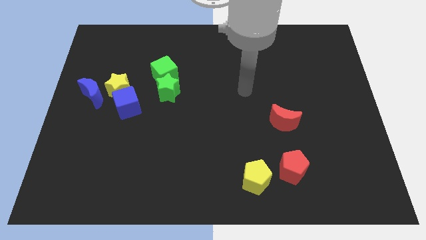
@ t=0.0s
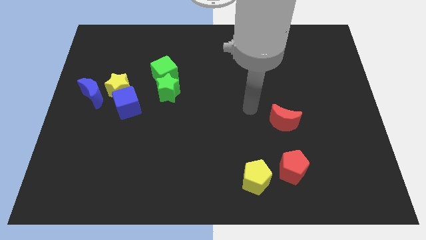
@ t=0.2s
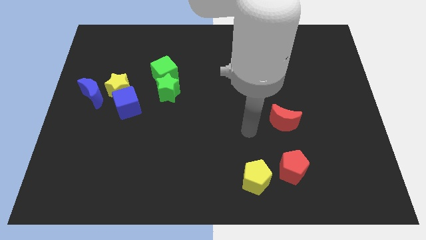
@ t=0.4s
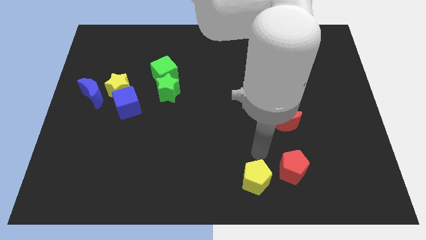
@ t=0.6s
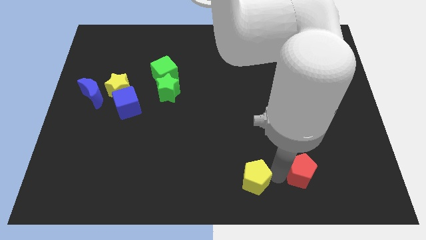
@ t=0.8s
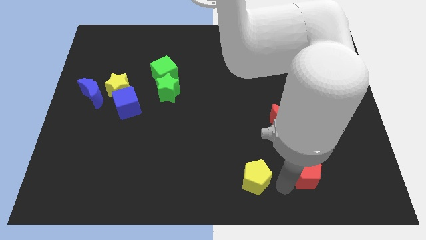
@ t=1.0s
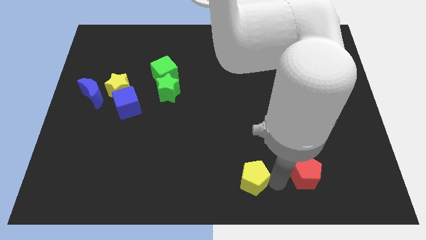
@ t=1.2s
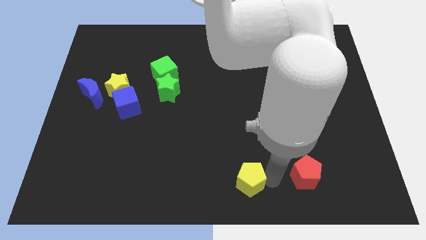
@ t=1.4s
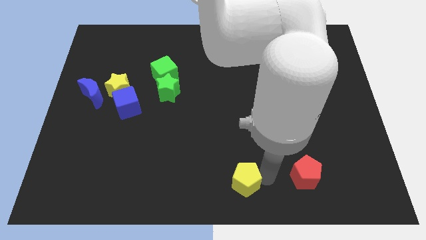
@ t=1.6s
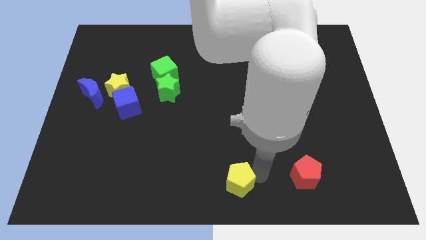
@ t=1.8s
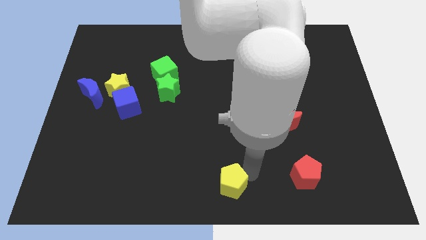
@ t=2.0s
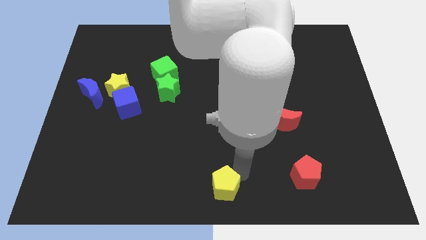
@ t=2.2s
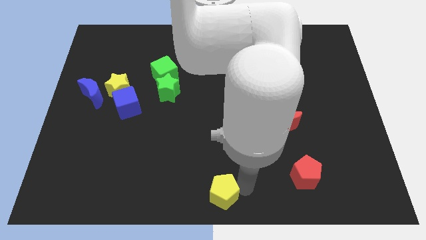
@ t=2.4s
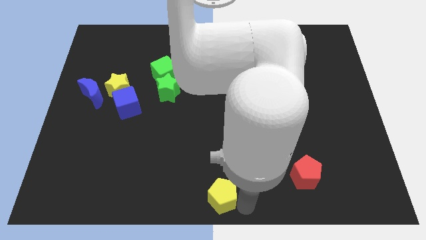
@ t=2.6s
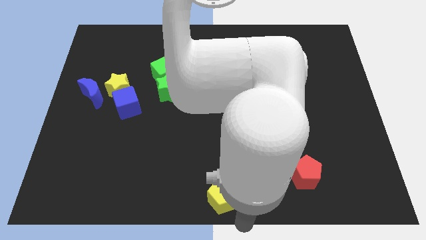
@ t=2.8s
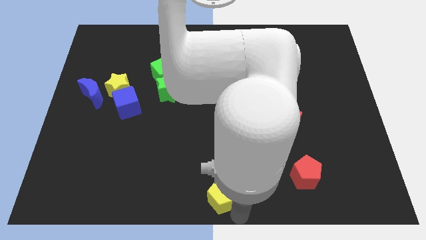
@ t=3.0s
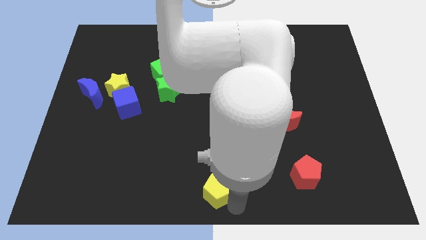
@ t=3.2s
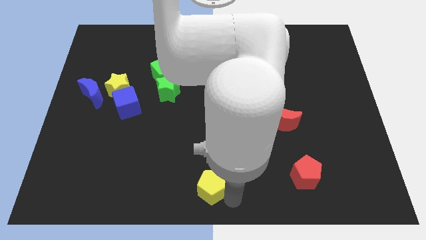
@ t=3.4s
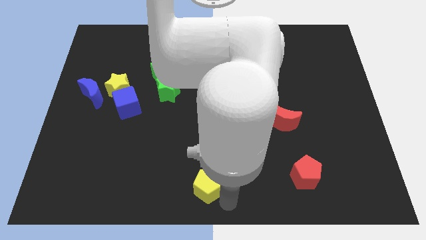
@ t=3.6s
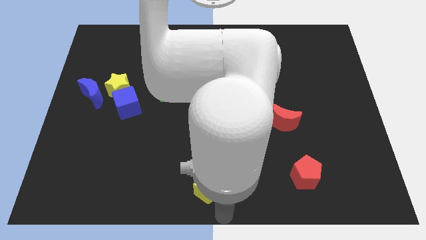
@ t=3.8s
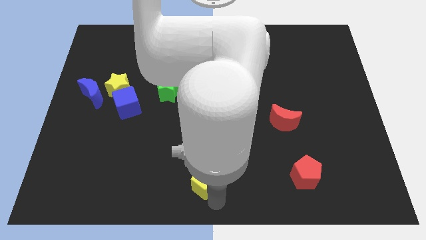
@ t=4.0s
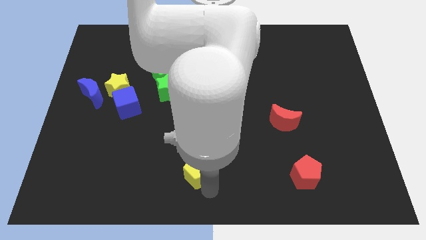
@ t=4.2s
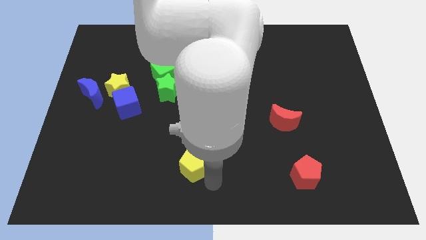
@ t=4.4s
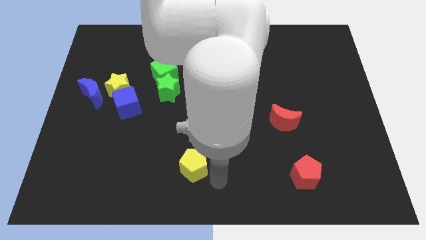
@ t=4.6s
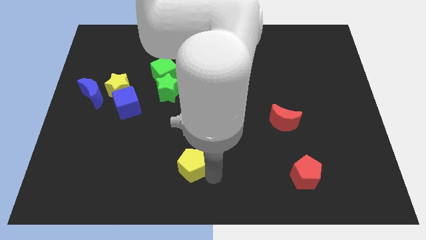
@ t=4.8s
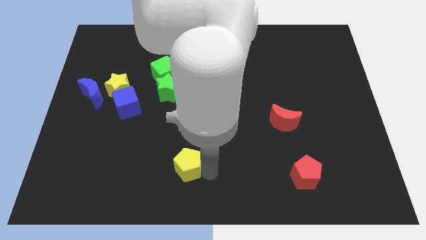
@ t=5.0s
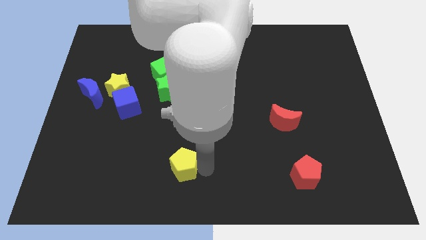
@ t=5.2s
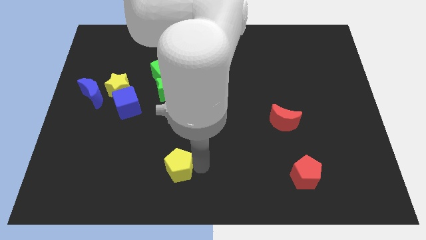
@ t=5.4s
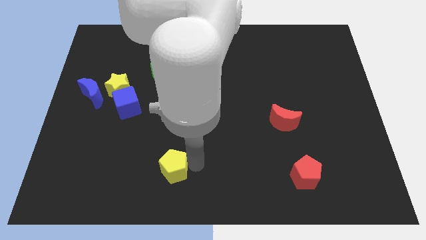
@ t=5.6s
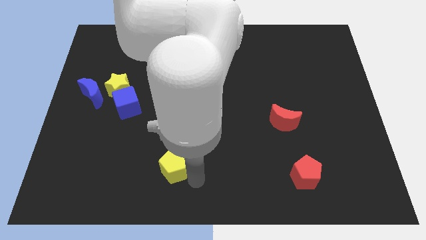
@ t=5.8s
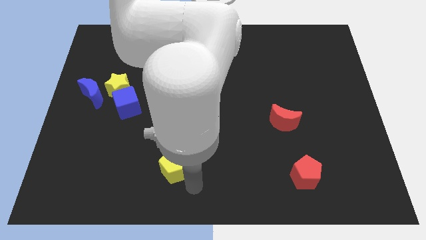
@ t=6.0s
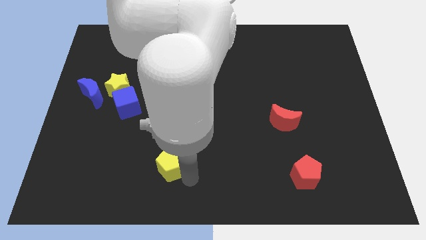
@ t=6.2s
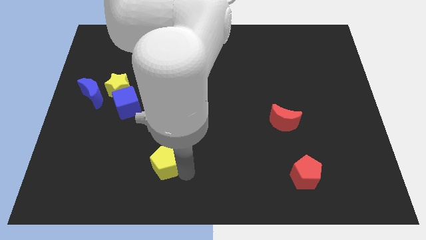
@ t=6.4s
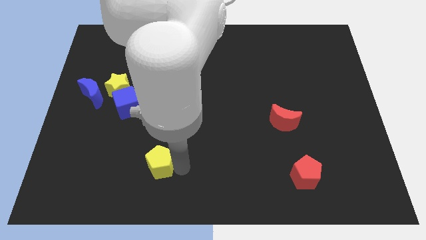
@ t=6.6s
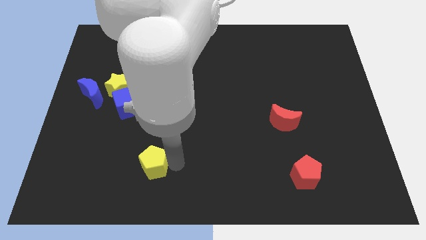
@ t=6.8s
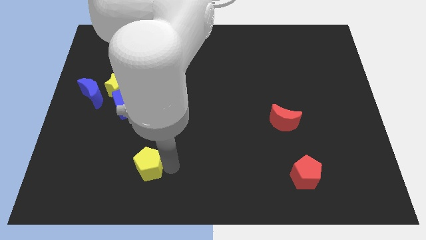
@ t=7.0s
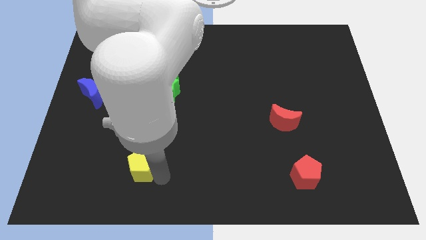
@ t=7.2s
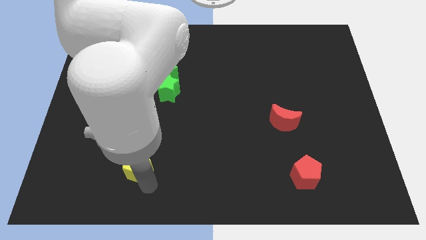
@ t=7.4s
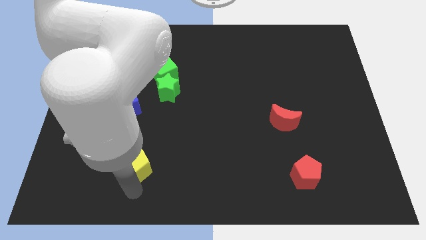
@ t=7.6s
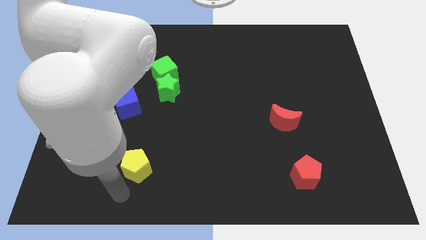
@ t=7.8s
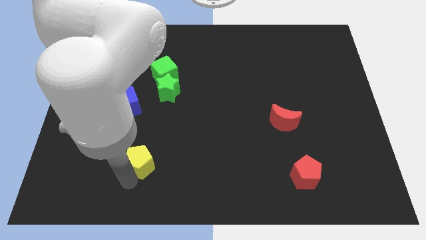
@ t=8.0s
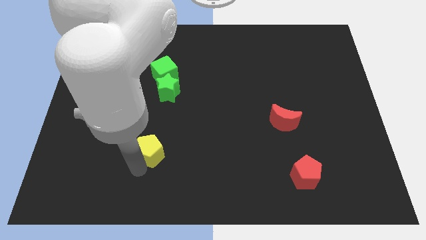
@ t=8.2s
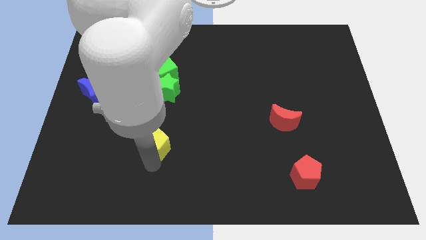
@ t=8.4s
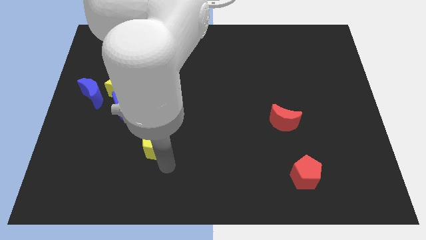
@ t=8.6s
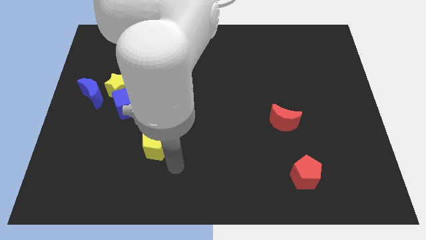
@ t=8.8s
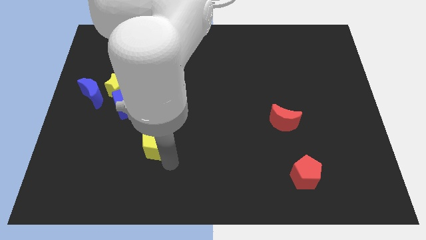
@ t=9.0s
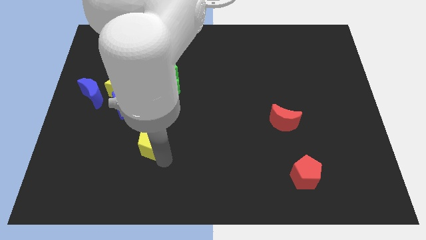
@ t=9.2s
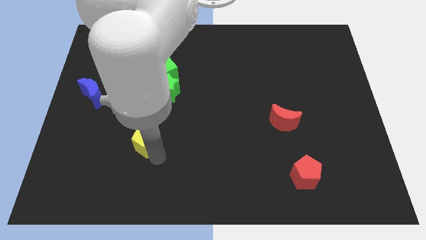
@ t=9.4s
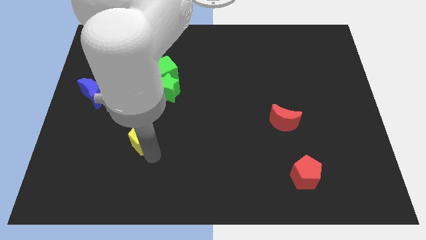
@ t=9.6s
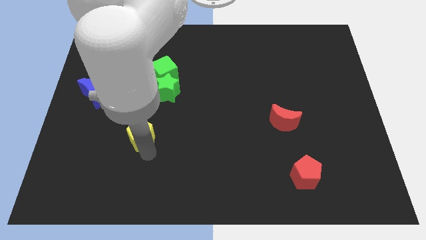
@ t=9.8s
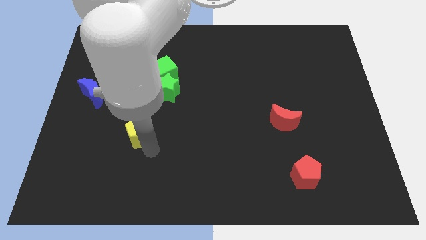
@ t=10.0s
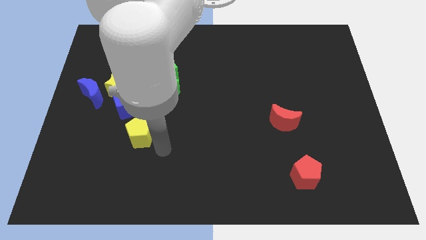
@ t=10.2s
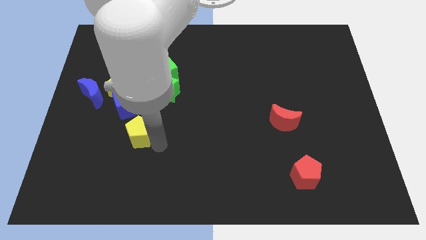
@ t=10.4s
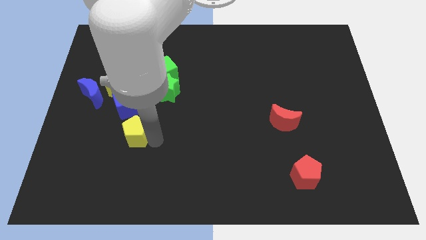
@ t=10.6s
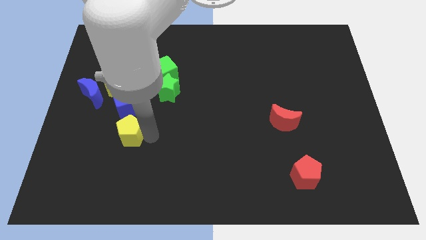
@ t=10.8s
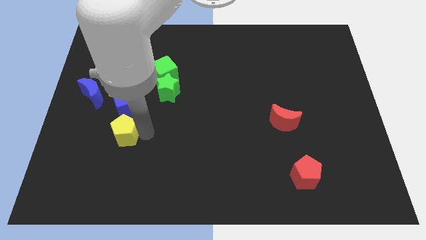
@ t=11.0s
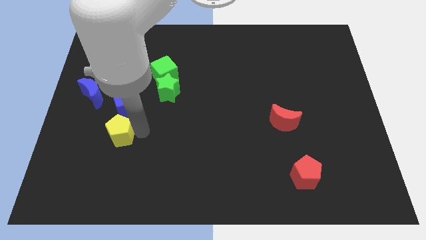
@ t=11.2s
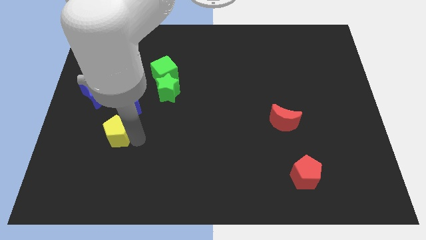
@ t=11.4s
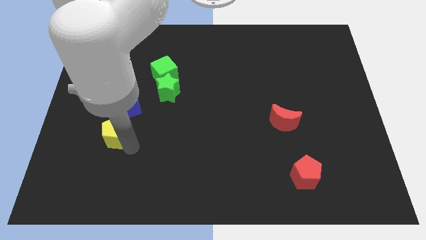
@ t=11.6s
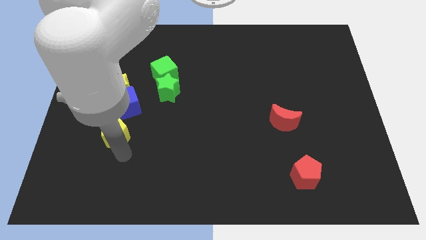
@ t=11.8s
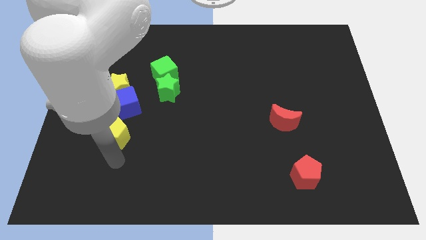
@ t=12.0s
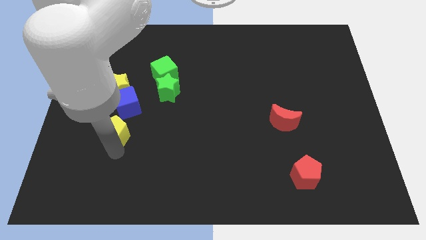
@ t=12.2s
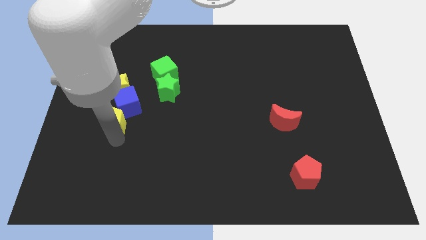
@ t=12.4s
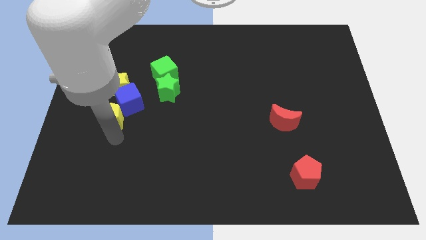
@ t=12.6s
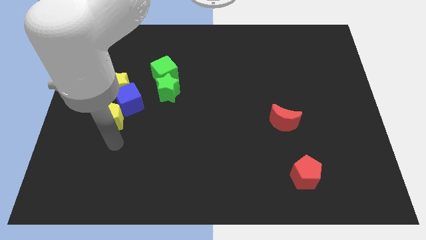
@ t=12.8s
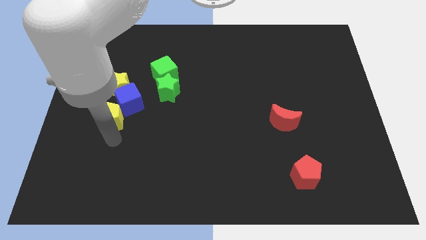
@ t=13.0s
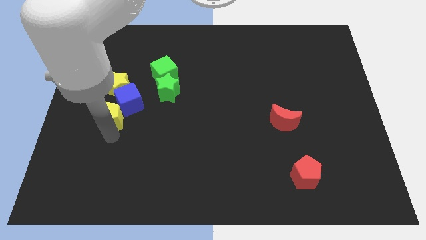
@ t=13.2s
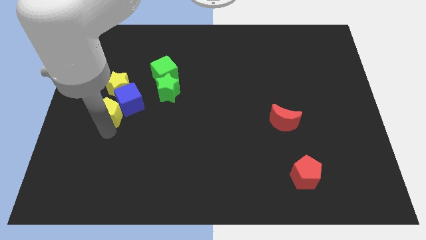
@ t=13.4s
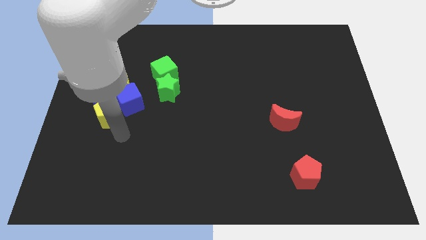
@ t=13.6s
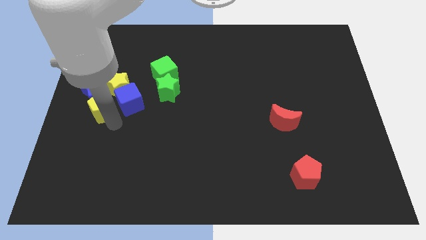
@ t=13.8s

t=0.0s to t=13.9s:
move the yellow pentagon towards the blue moon
